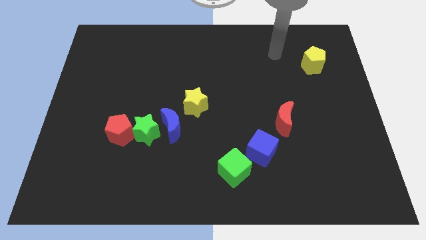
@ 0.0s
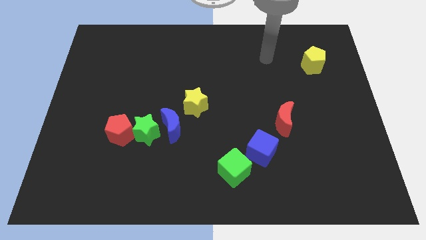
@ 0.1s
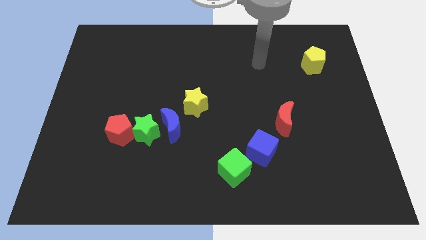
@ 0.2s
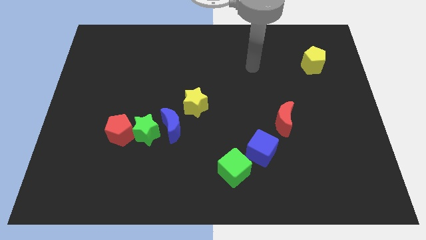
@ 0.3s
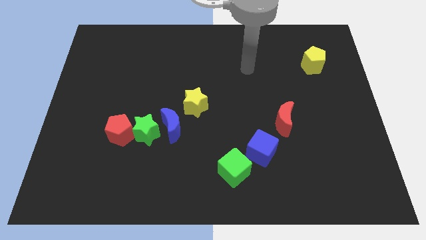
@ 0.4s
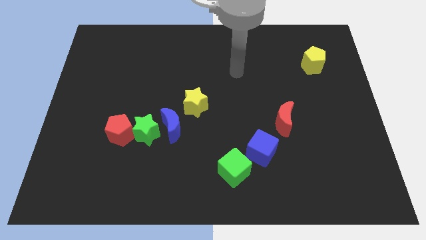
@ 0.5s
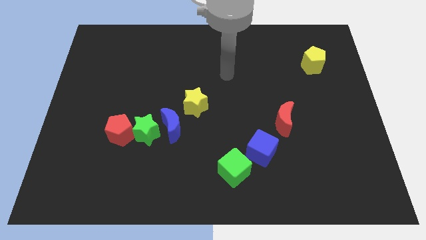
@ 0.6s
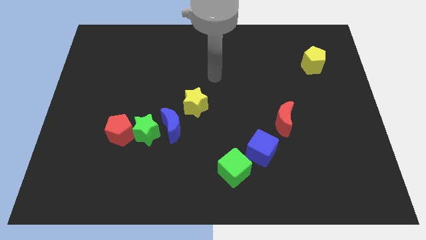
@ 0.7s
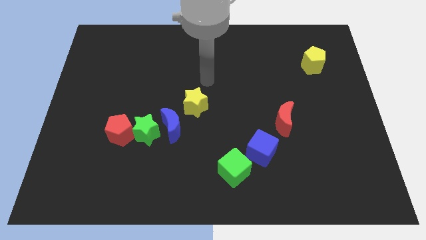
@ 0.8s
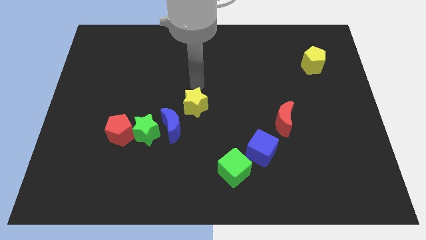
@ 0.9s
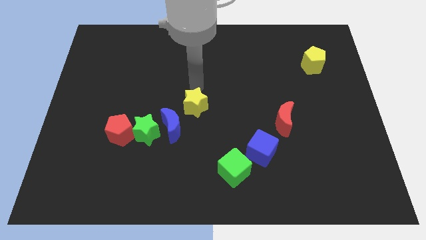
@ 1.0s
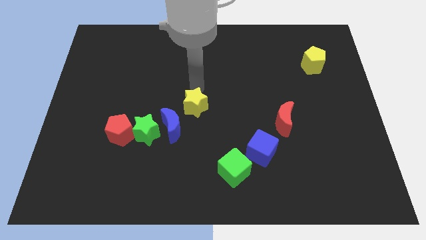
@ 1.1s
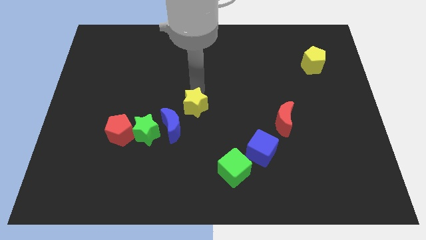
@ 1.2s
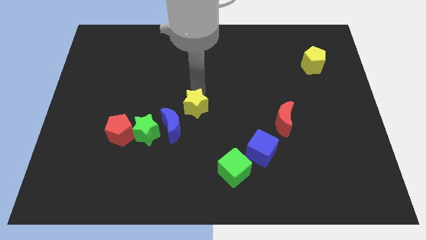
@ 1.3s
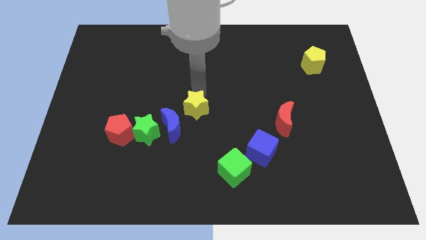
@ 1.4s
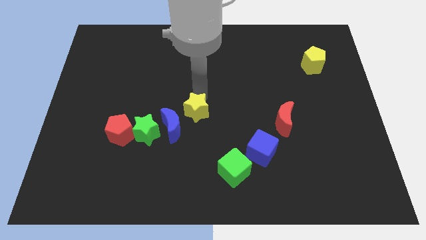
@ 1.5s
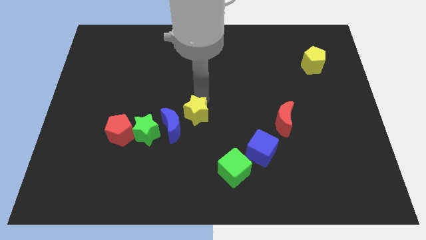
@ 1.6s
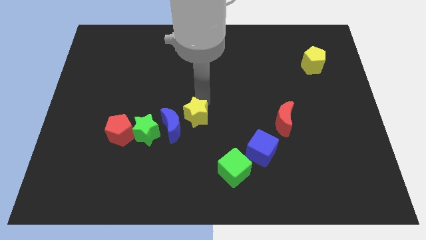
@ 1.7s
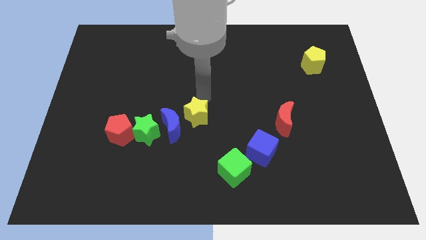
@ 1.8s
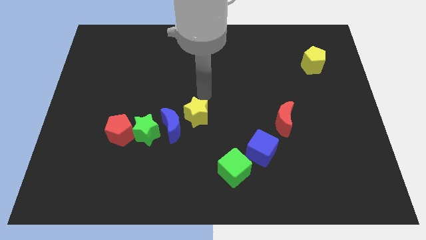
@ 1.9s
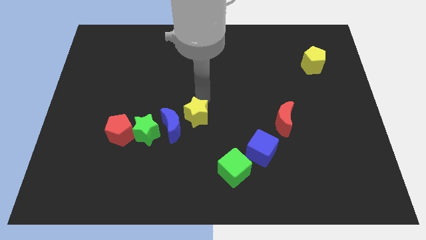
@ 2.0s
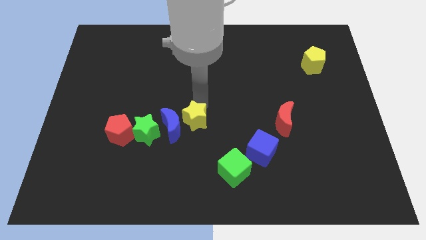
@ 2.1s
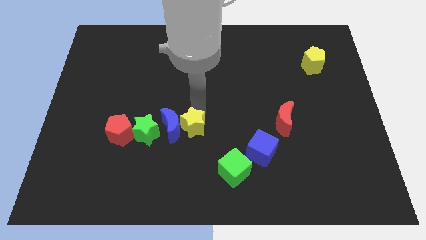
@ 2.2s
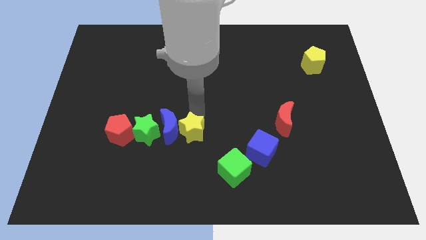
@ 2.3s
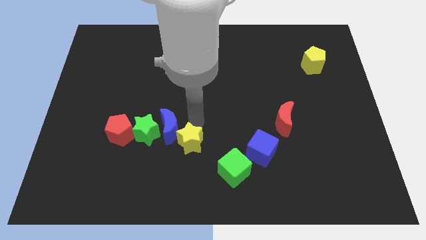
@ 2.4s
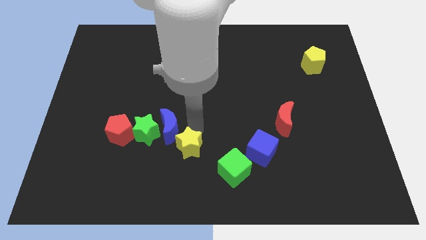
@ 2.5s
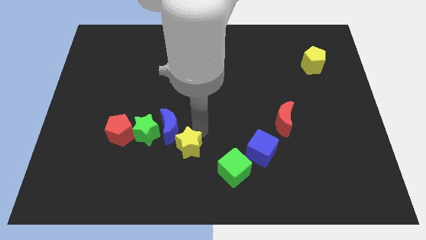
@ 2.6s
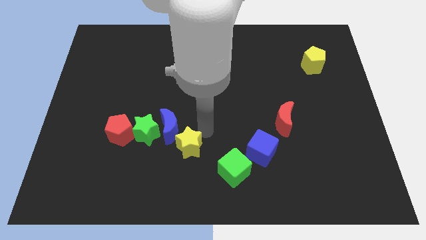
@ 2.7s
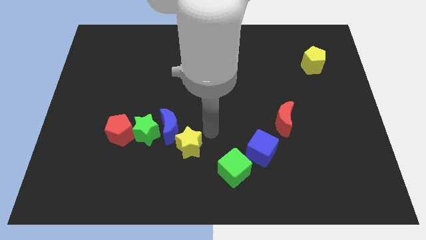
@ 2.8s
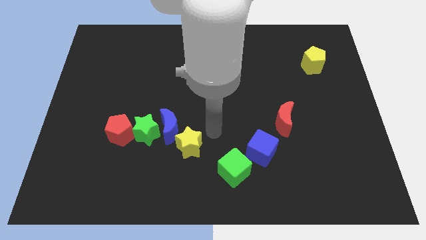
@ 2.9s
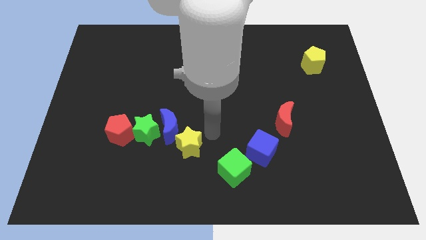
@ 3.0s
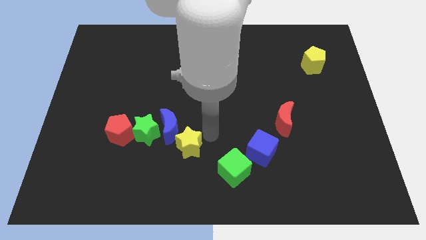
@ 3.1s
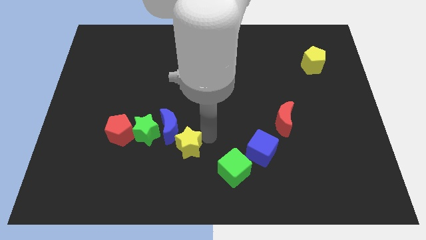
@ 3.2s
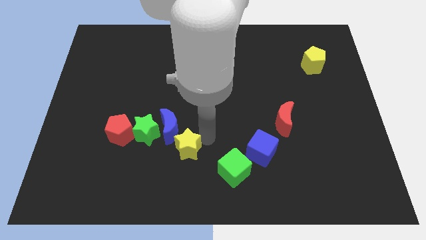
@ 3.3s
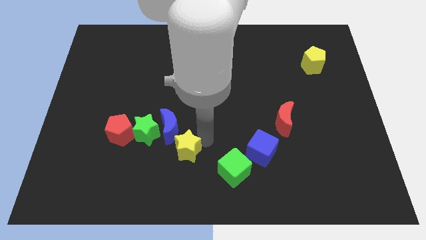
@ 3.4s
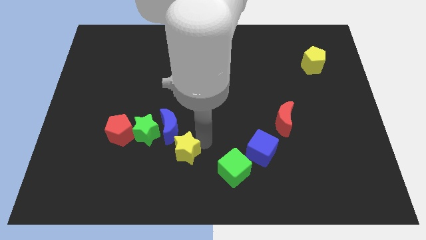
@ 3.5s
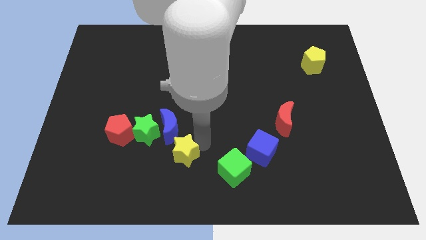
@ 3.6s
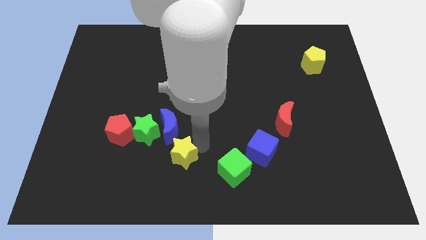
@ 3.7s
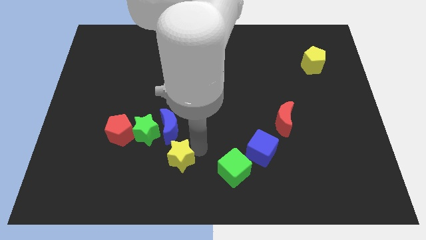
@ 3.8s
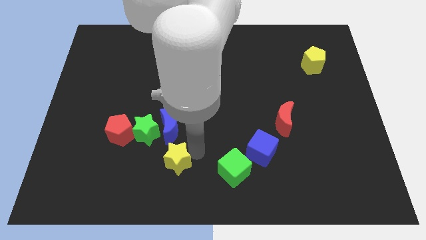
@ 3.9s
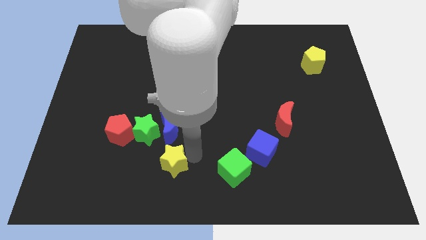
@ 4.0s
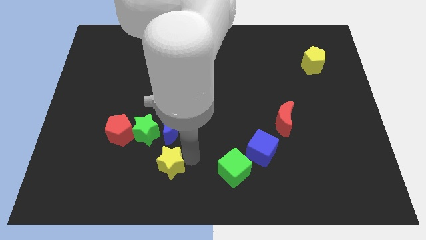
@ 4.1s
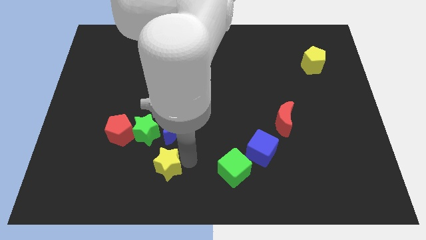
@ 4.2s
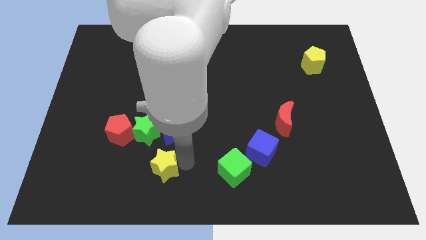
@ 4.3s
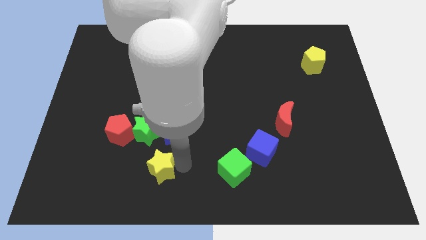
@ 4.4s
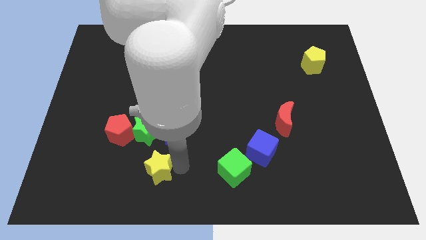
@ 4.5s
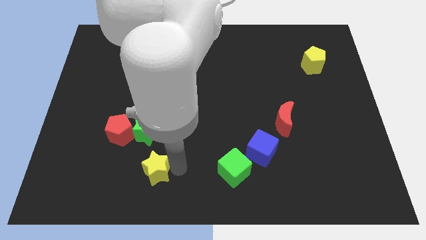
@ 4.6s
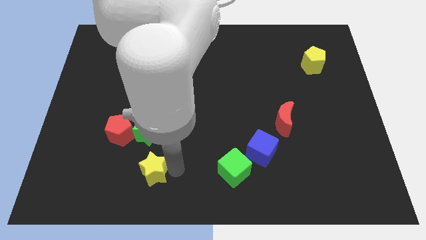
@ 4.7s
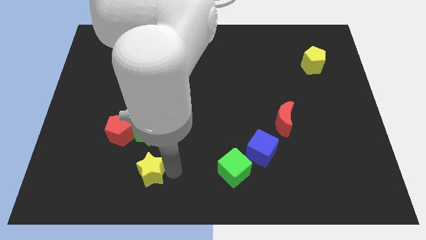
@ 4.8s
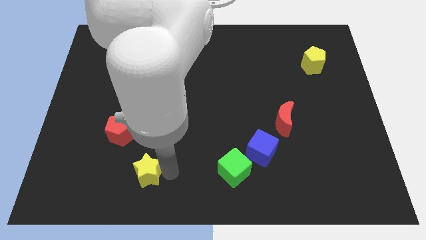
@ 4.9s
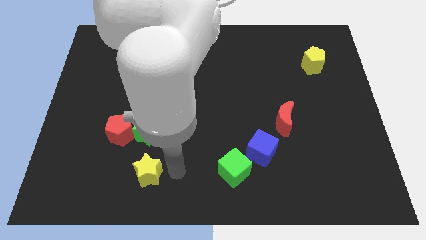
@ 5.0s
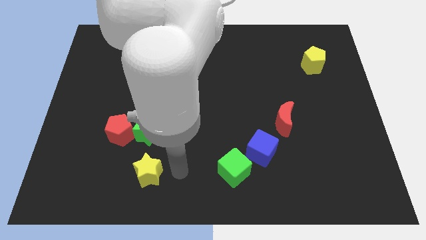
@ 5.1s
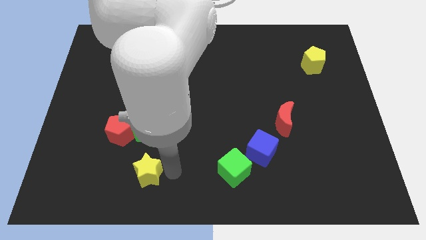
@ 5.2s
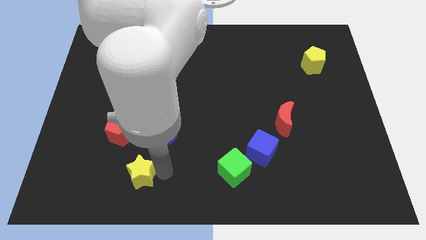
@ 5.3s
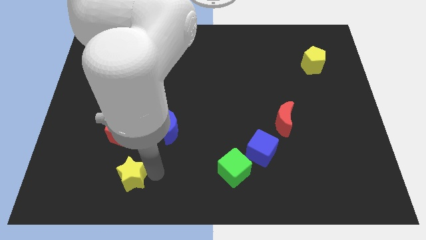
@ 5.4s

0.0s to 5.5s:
slide the yellow star below the red pentagon

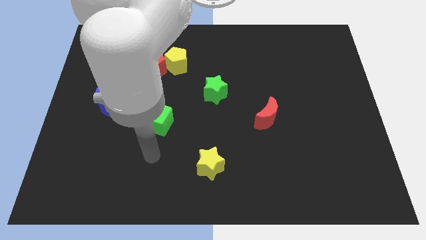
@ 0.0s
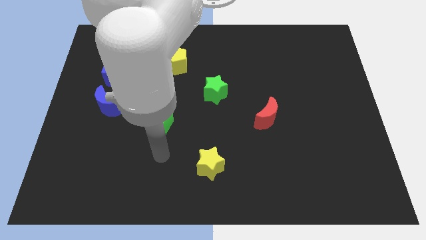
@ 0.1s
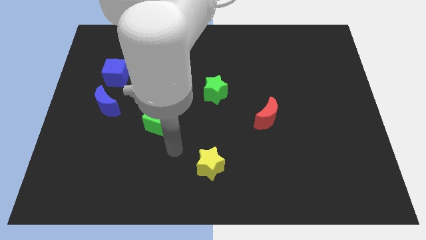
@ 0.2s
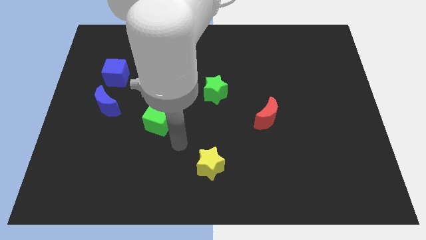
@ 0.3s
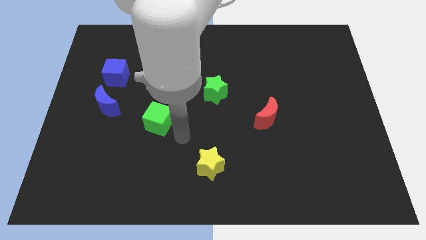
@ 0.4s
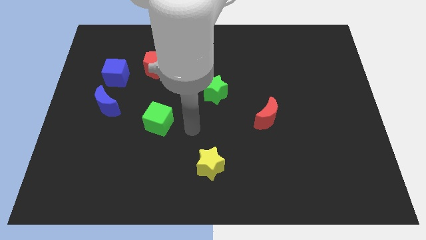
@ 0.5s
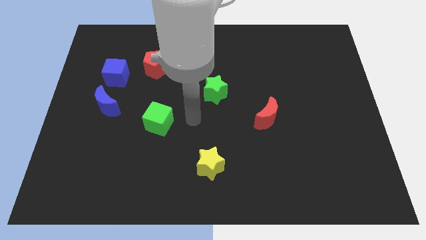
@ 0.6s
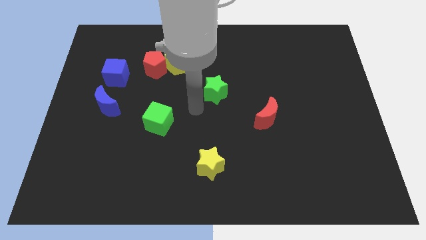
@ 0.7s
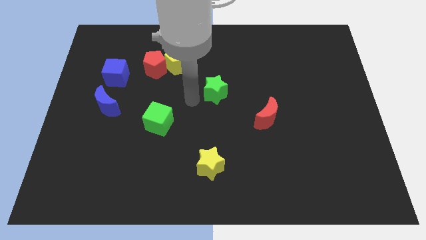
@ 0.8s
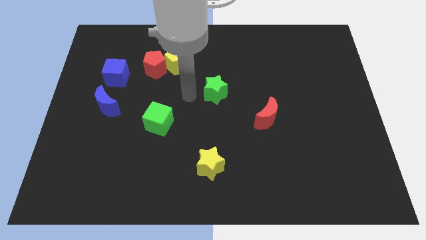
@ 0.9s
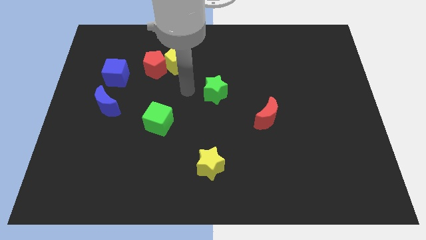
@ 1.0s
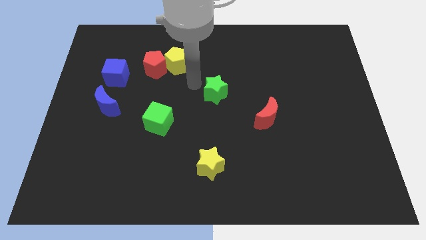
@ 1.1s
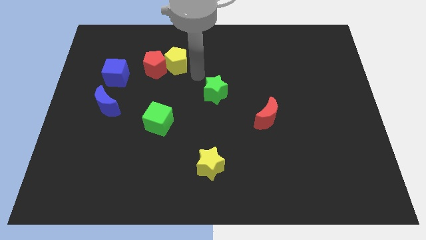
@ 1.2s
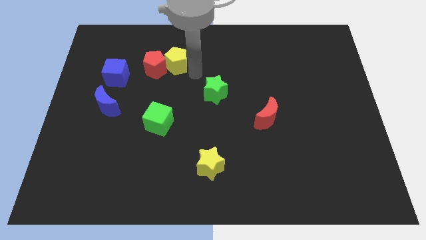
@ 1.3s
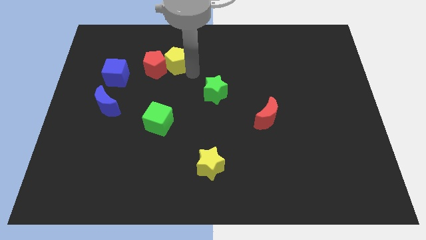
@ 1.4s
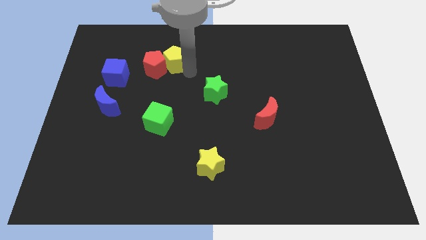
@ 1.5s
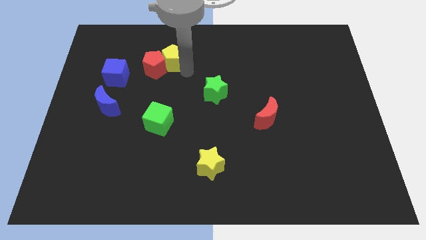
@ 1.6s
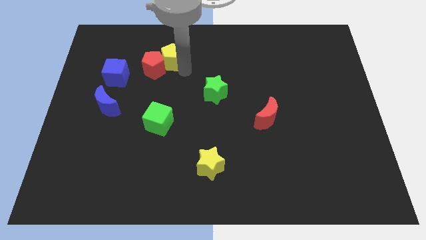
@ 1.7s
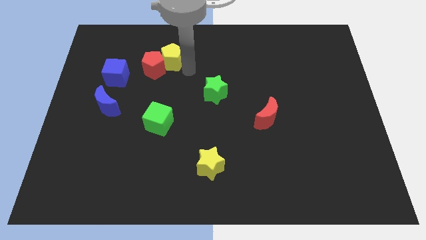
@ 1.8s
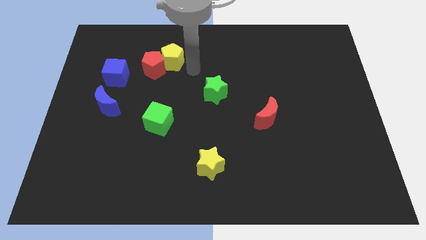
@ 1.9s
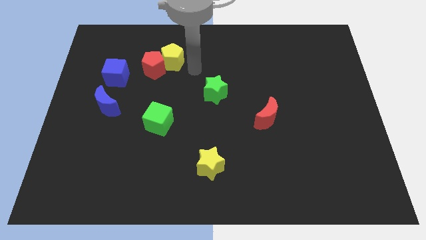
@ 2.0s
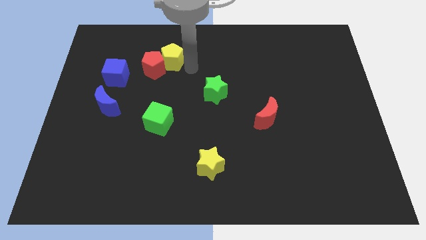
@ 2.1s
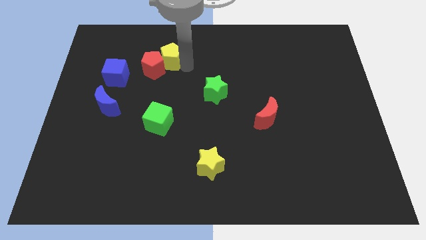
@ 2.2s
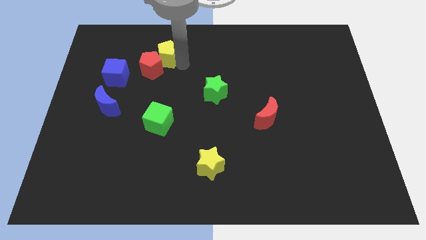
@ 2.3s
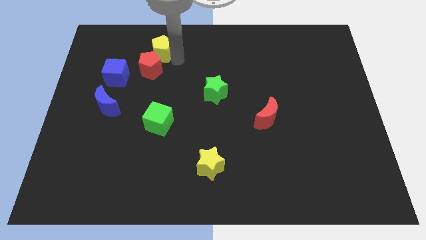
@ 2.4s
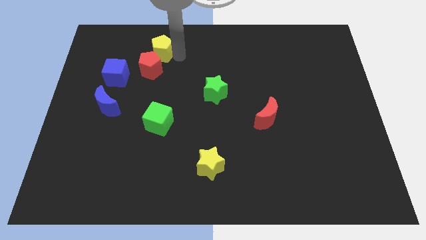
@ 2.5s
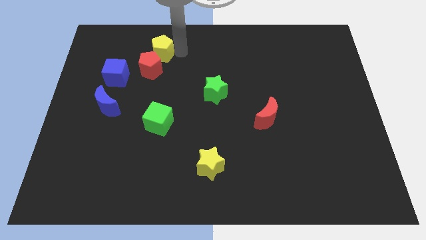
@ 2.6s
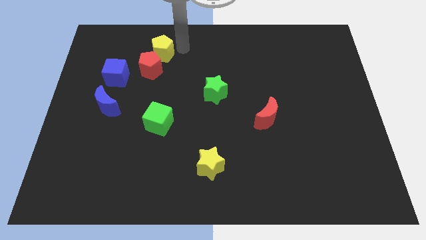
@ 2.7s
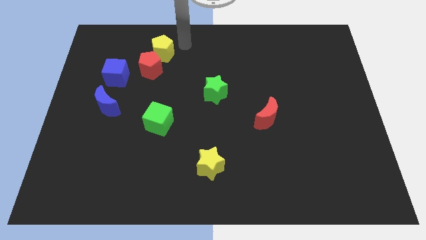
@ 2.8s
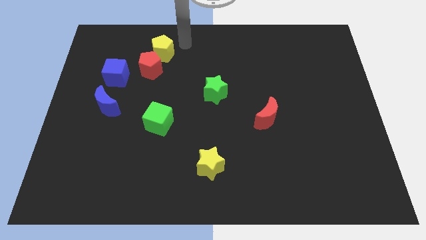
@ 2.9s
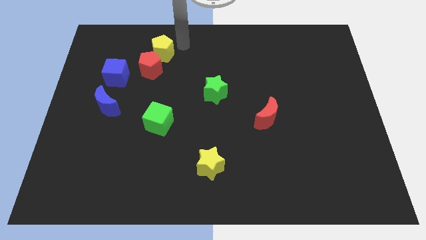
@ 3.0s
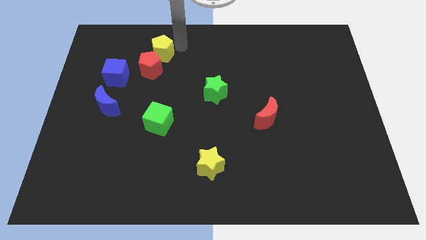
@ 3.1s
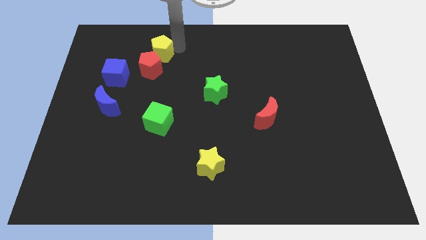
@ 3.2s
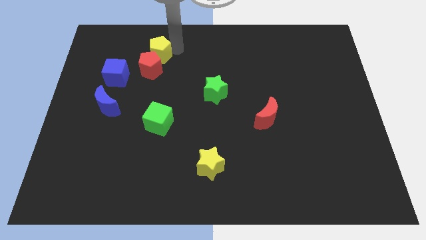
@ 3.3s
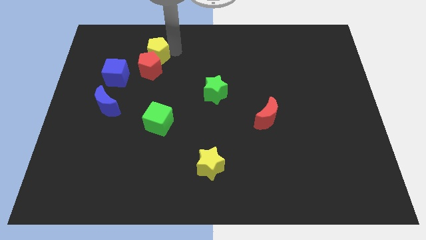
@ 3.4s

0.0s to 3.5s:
push the yellow pentagon to the top right side of the blue cube
